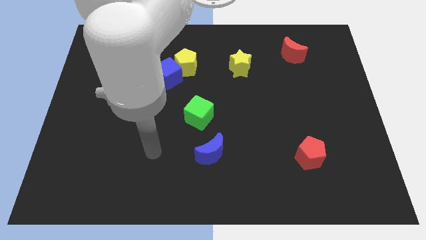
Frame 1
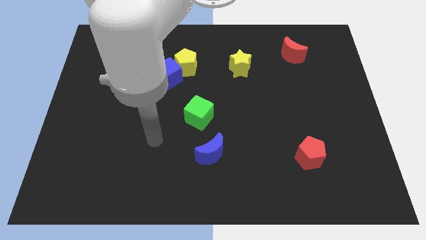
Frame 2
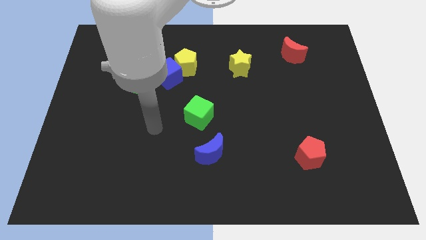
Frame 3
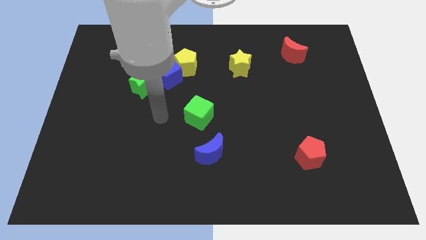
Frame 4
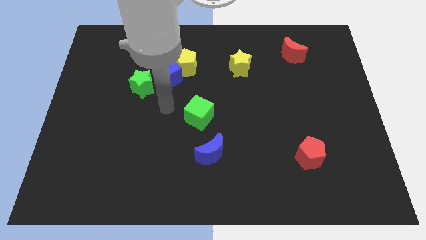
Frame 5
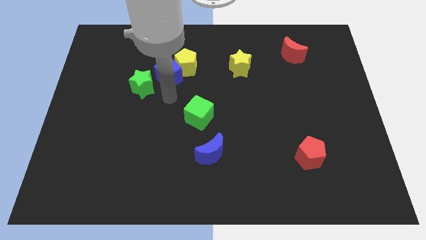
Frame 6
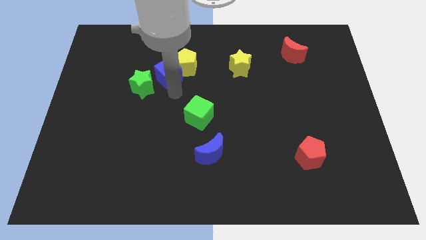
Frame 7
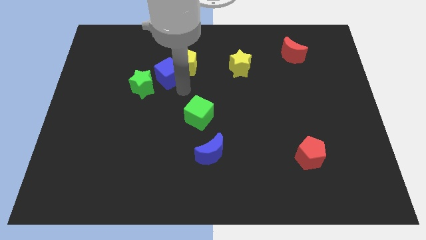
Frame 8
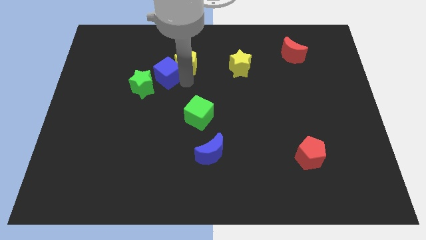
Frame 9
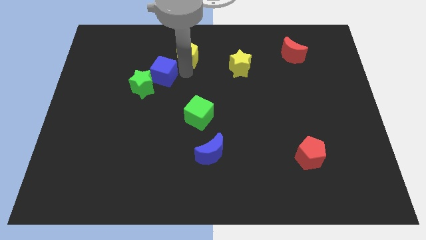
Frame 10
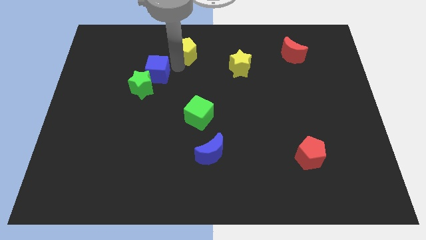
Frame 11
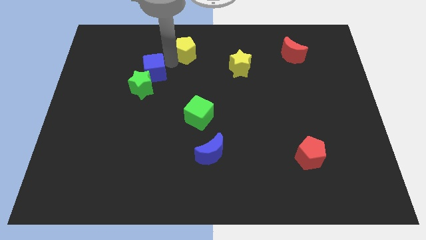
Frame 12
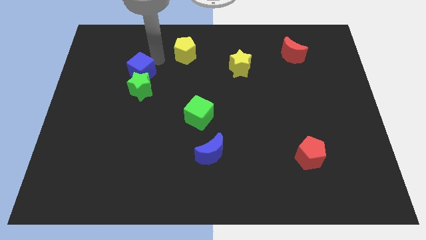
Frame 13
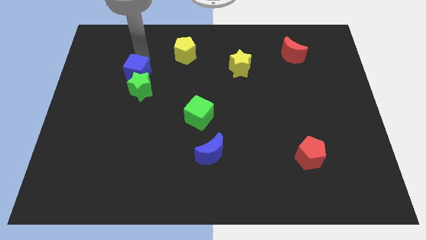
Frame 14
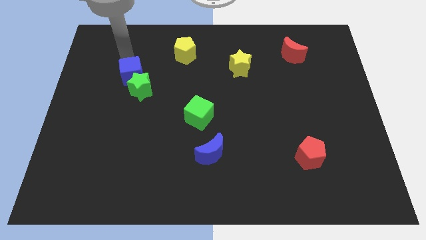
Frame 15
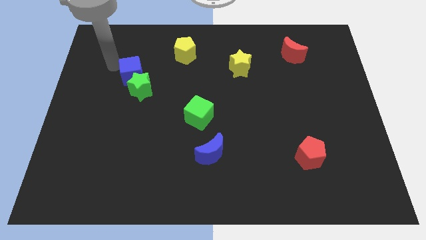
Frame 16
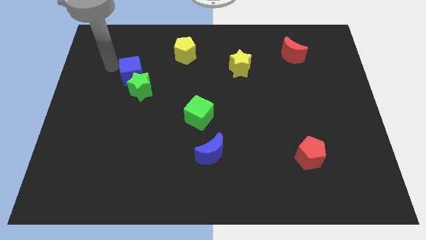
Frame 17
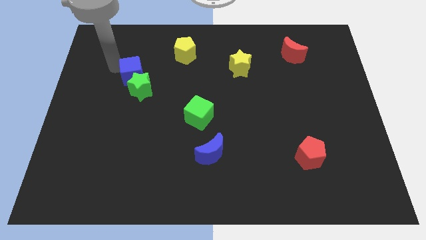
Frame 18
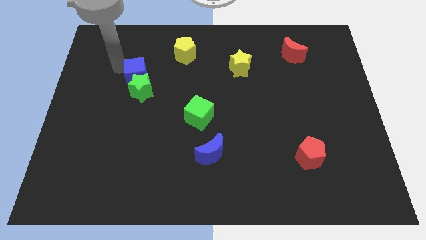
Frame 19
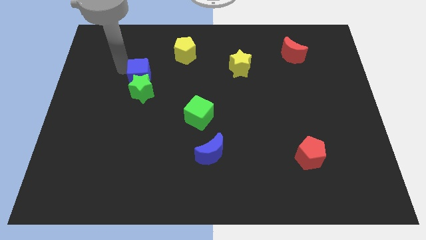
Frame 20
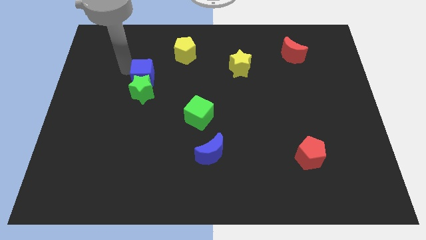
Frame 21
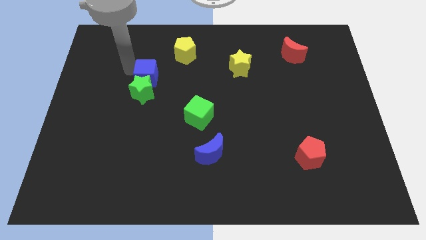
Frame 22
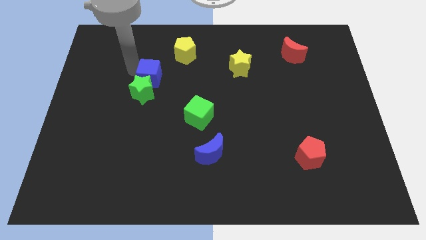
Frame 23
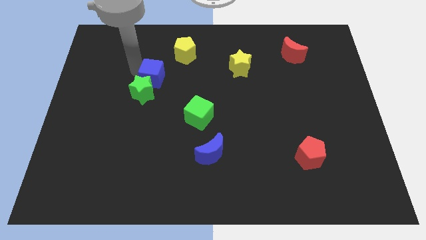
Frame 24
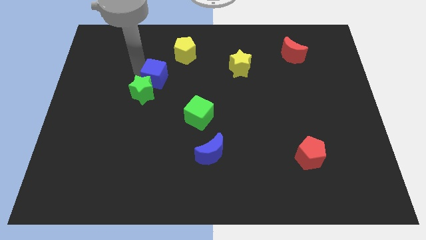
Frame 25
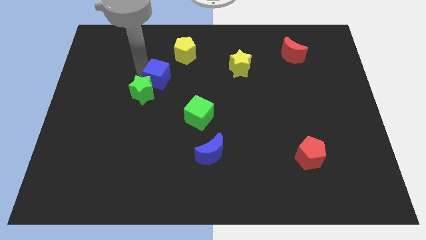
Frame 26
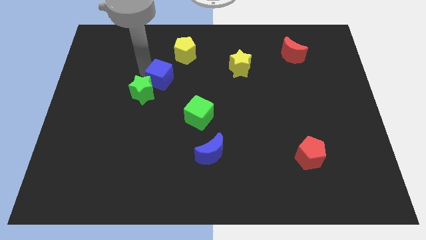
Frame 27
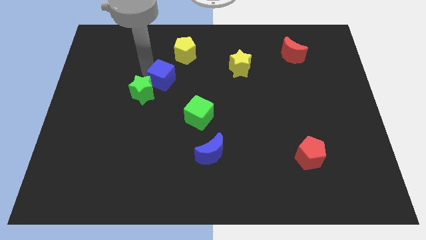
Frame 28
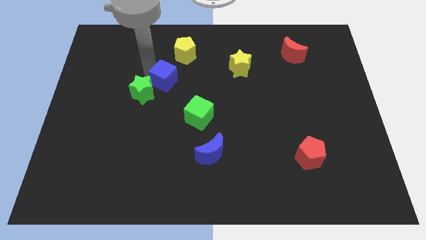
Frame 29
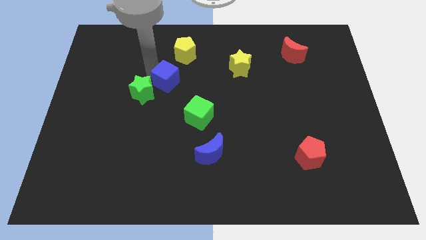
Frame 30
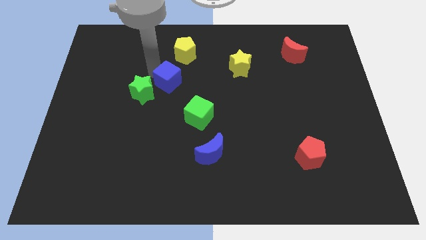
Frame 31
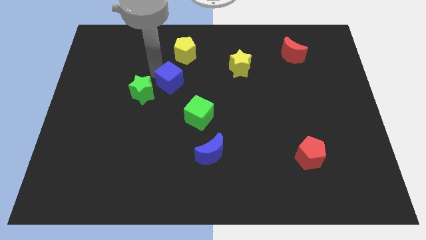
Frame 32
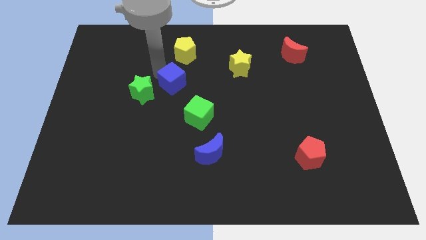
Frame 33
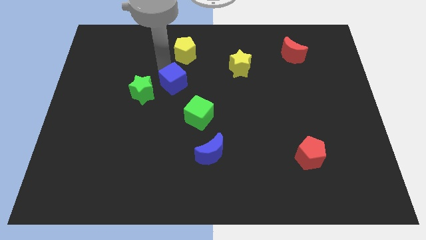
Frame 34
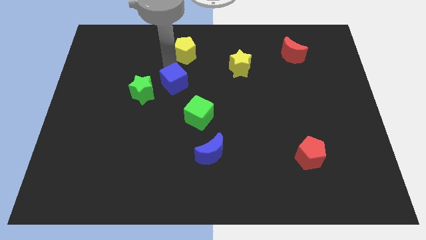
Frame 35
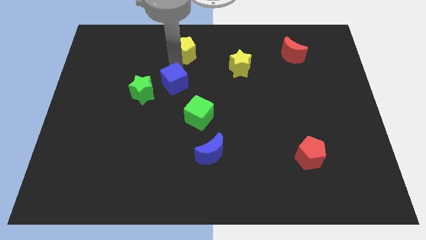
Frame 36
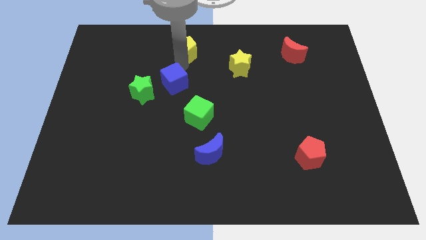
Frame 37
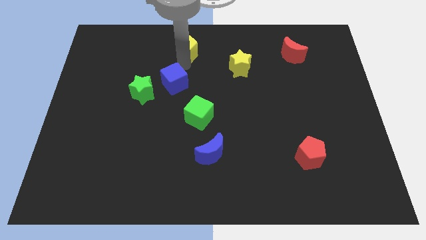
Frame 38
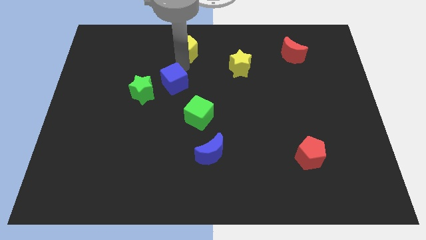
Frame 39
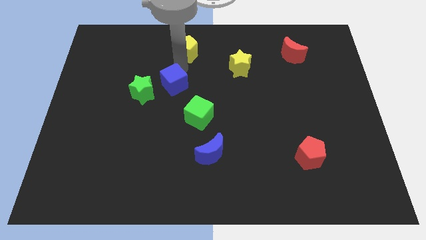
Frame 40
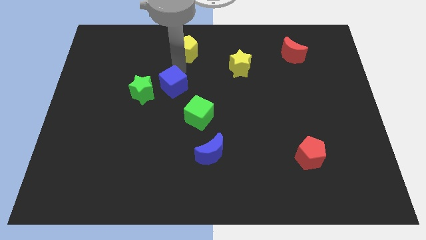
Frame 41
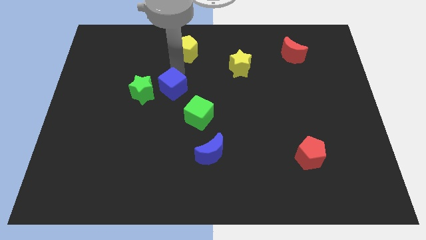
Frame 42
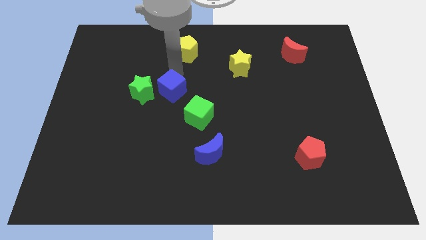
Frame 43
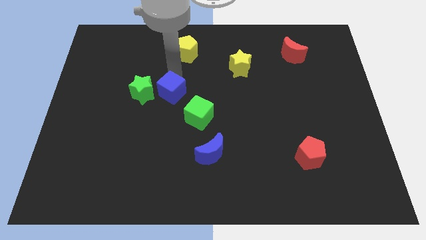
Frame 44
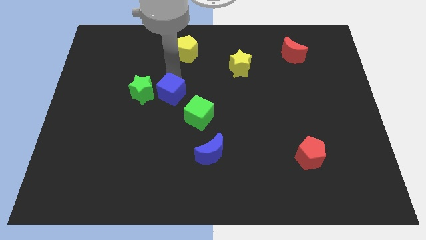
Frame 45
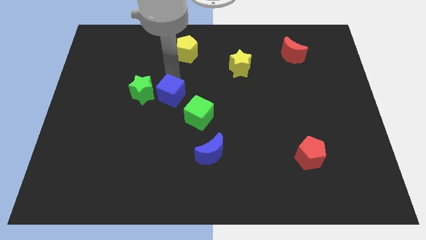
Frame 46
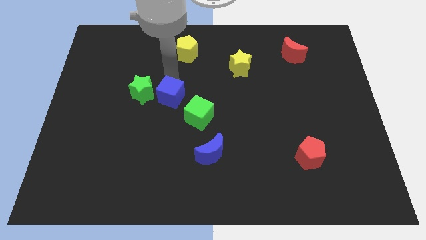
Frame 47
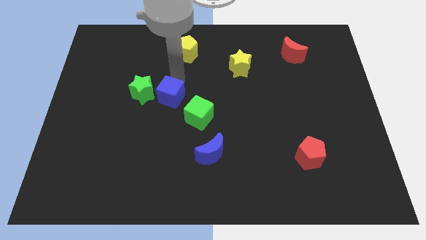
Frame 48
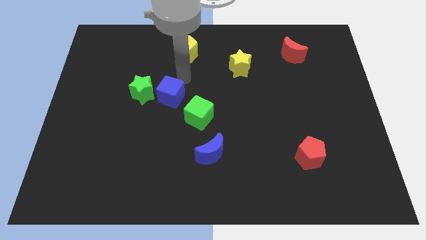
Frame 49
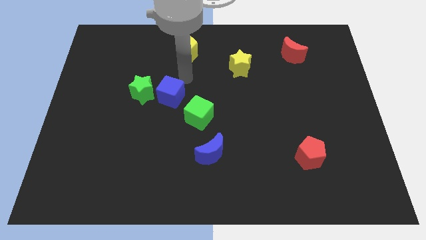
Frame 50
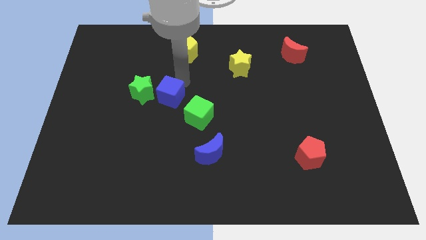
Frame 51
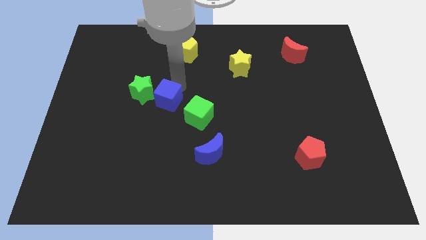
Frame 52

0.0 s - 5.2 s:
move the blue cube left of the green cube

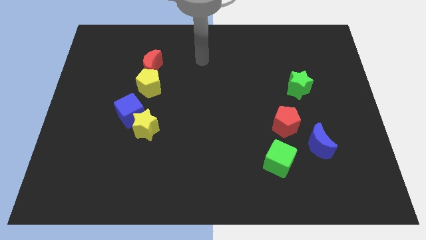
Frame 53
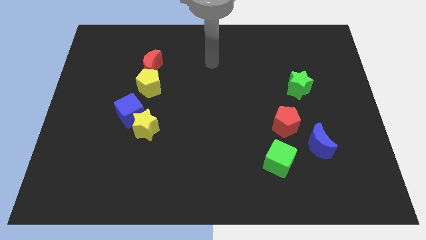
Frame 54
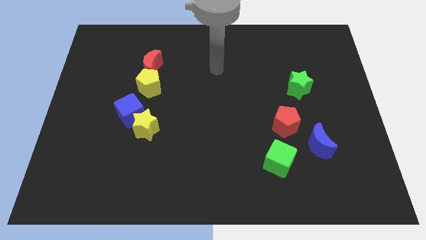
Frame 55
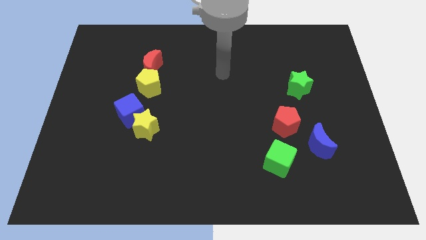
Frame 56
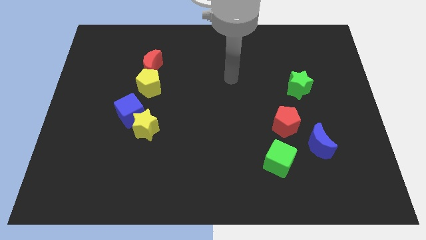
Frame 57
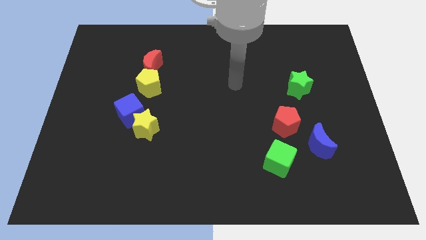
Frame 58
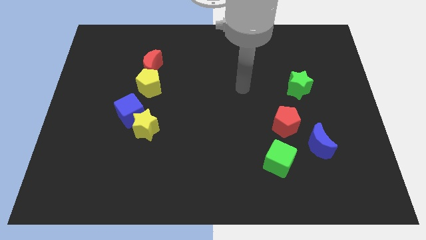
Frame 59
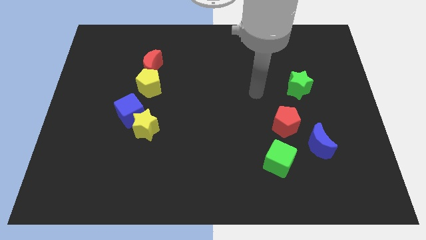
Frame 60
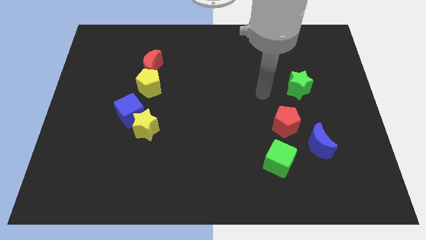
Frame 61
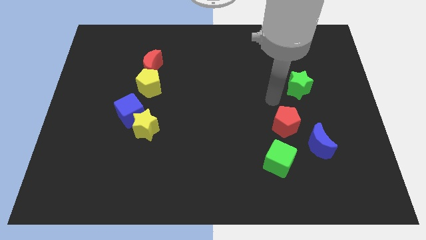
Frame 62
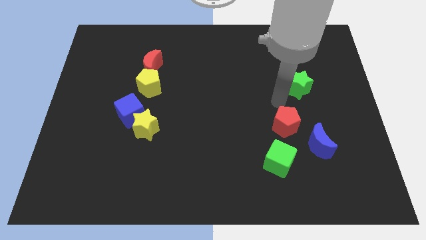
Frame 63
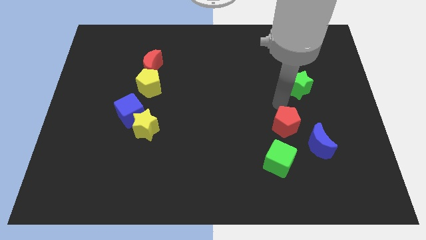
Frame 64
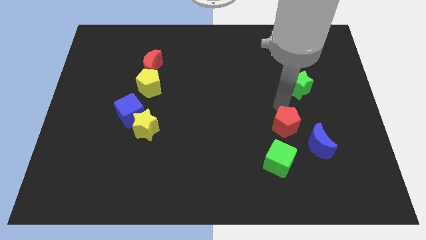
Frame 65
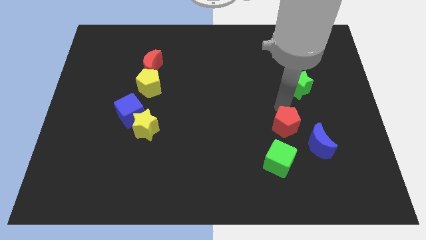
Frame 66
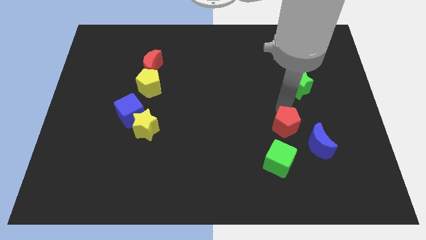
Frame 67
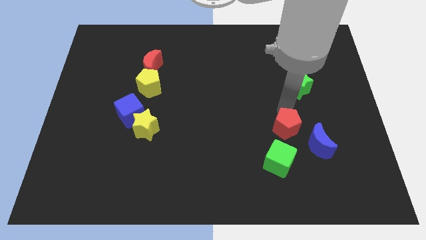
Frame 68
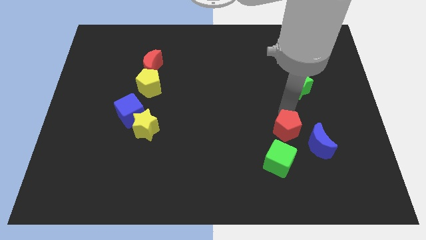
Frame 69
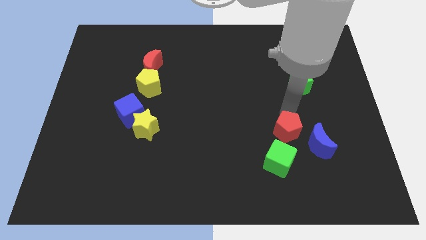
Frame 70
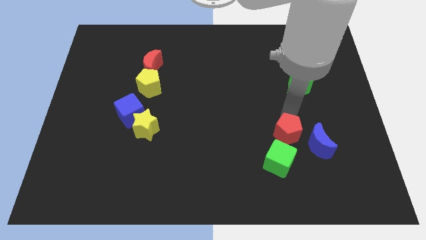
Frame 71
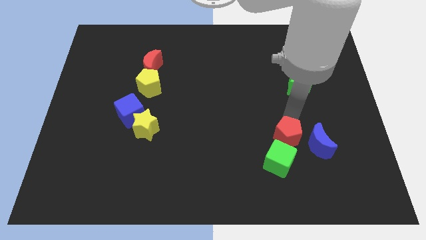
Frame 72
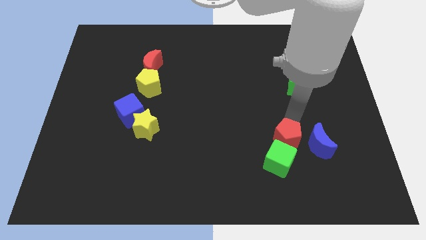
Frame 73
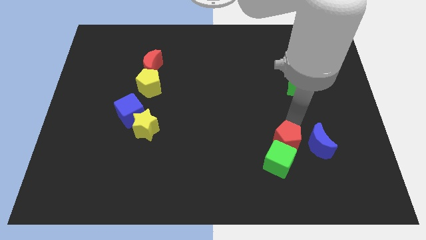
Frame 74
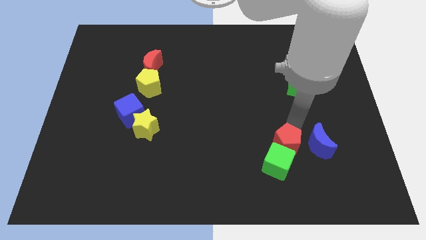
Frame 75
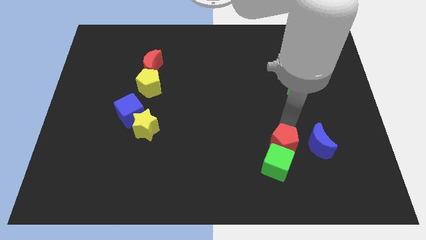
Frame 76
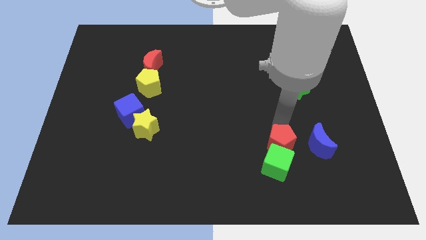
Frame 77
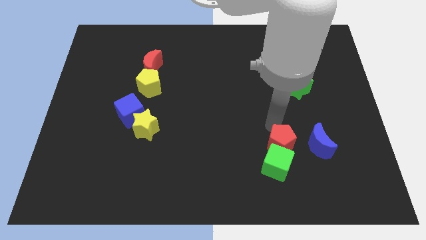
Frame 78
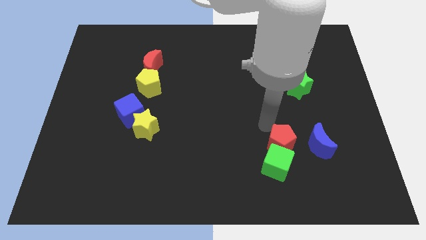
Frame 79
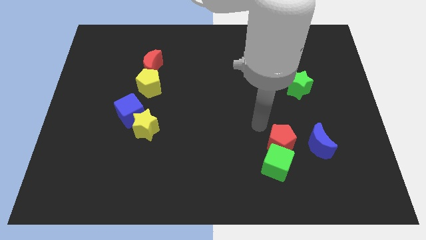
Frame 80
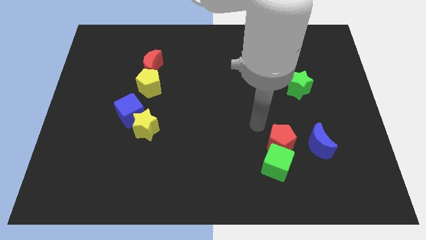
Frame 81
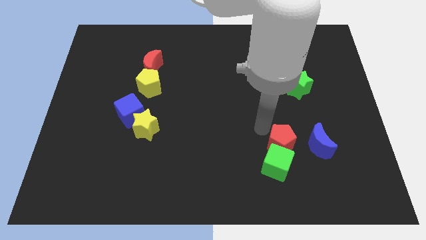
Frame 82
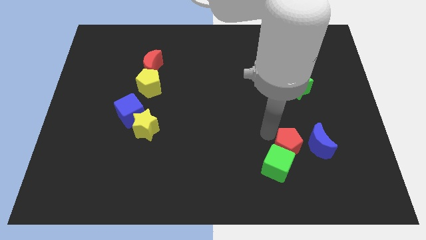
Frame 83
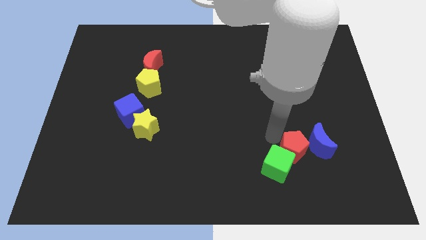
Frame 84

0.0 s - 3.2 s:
push the red pentagon right of the green cube
